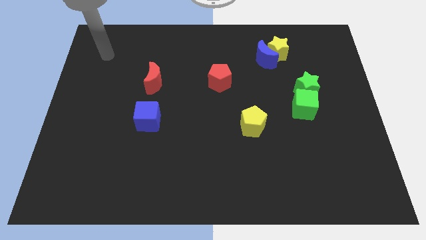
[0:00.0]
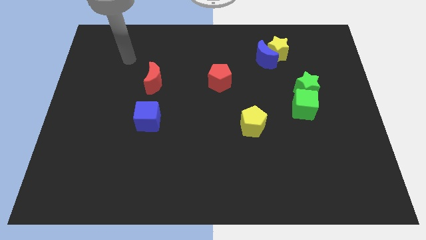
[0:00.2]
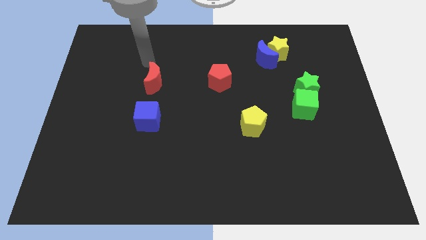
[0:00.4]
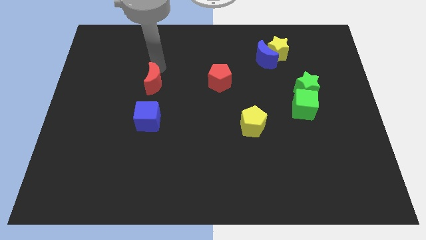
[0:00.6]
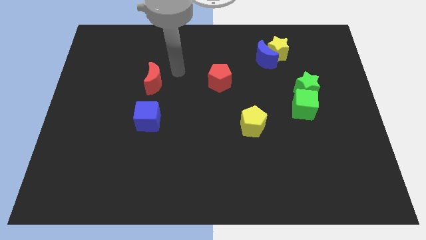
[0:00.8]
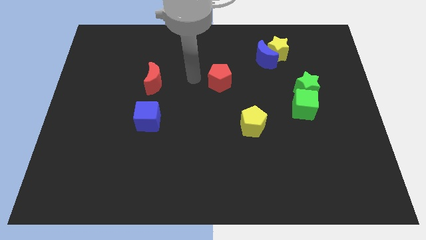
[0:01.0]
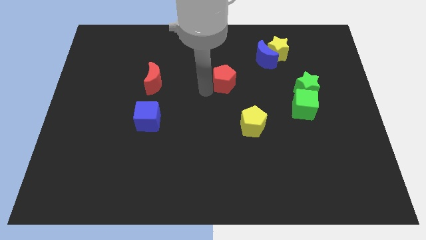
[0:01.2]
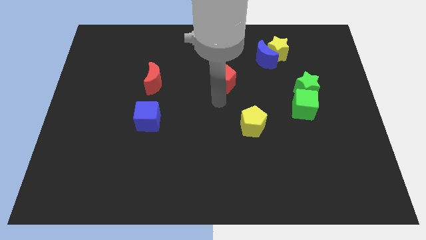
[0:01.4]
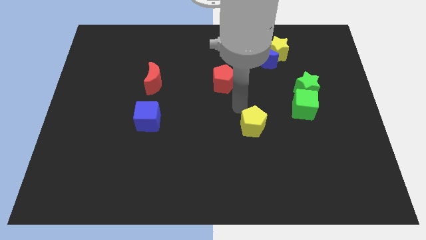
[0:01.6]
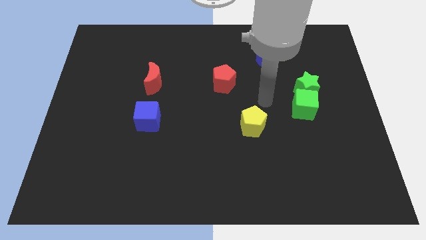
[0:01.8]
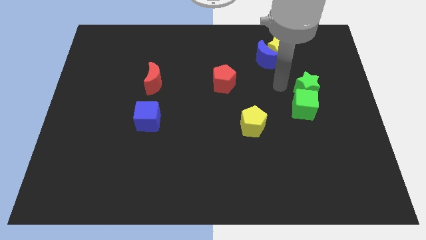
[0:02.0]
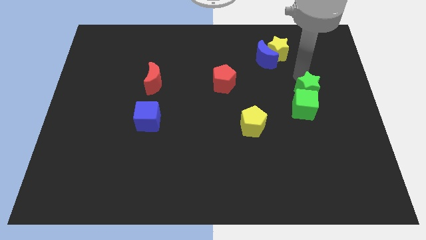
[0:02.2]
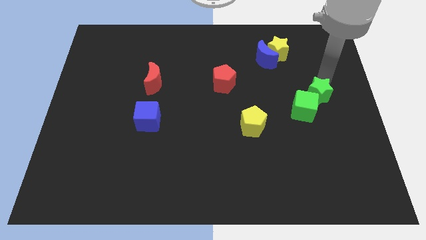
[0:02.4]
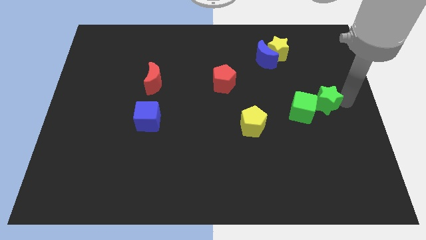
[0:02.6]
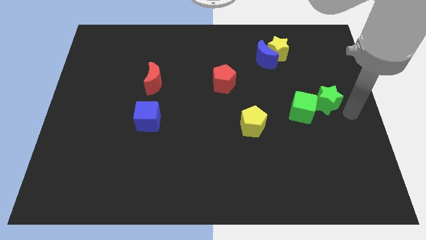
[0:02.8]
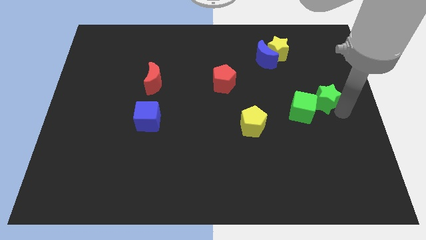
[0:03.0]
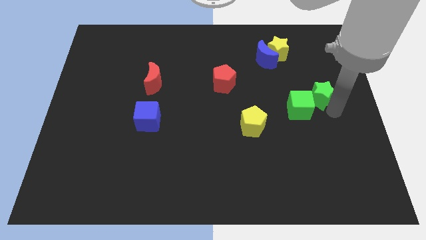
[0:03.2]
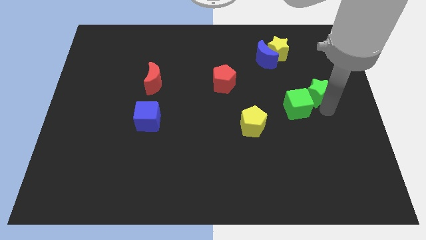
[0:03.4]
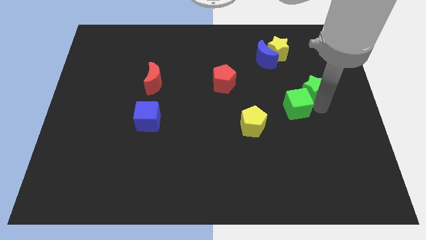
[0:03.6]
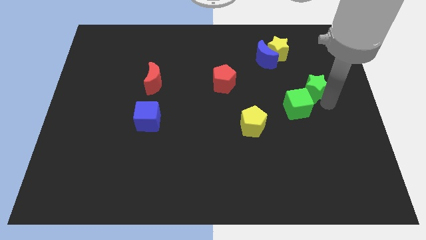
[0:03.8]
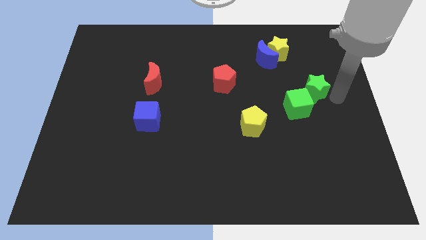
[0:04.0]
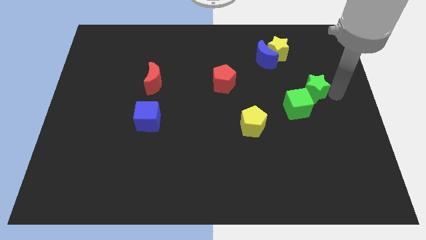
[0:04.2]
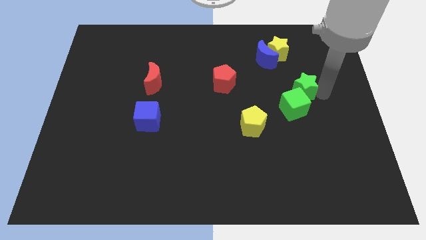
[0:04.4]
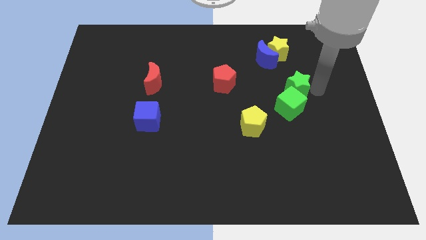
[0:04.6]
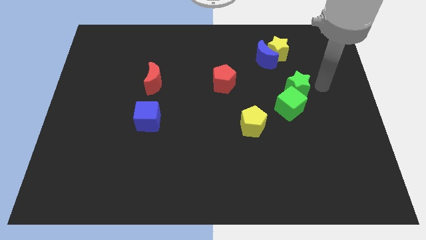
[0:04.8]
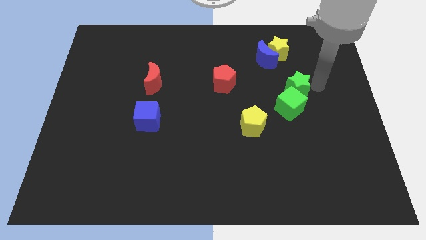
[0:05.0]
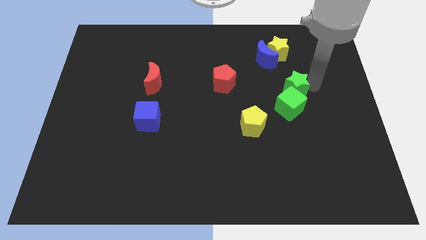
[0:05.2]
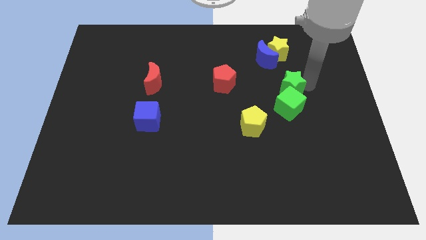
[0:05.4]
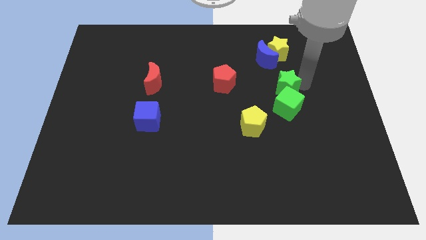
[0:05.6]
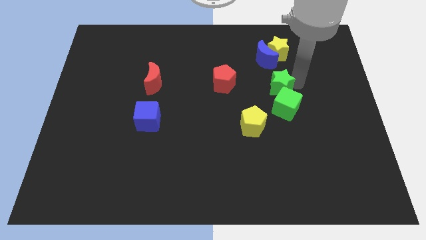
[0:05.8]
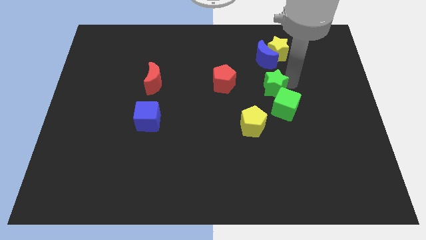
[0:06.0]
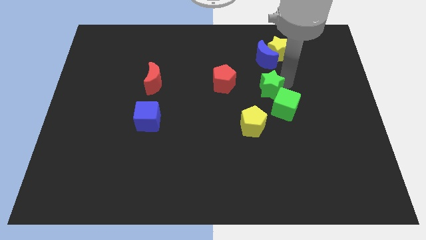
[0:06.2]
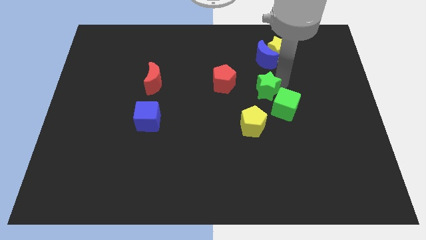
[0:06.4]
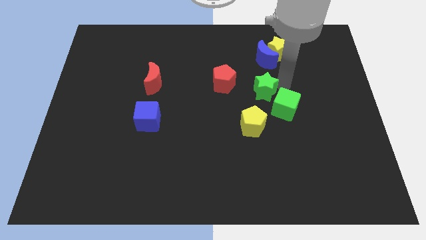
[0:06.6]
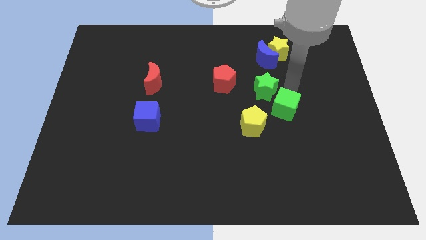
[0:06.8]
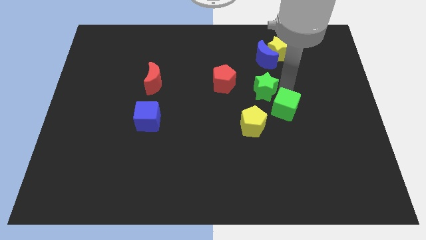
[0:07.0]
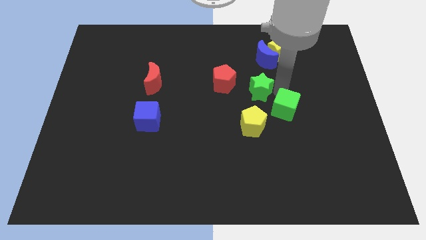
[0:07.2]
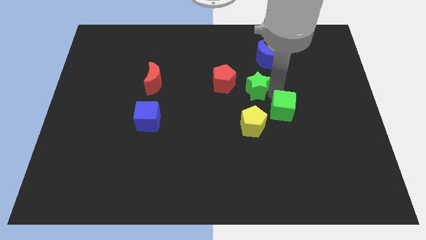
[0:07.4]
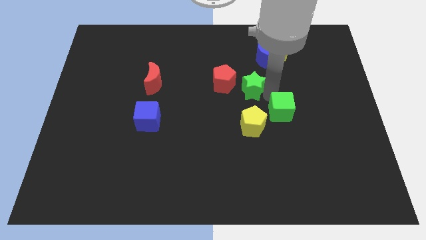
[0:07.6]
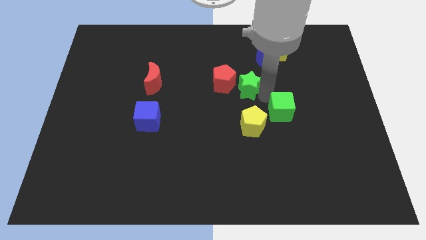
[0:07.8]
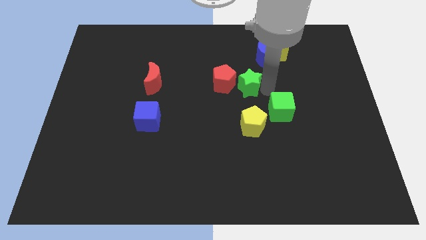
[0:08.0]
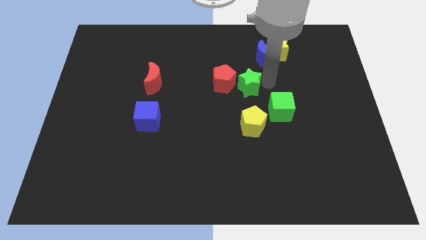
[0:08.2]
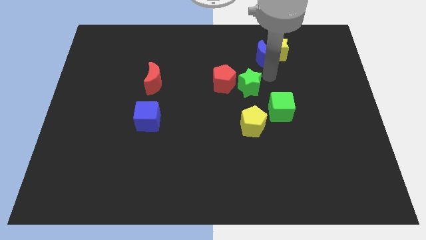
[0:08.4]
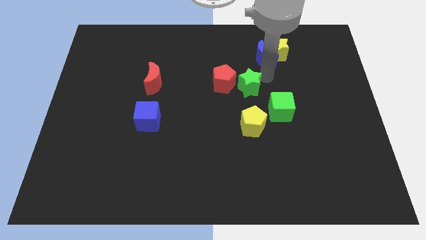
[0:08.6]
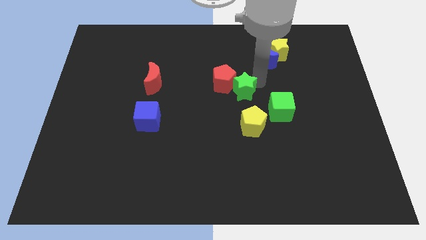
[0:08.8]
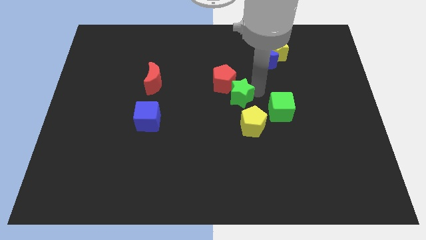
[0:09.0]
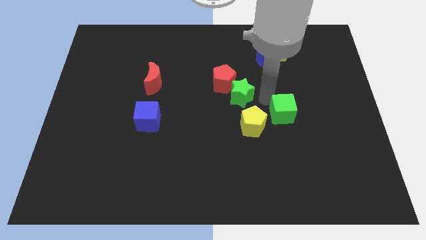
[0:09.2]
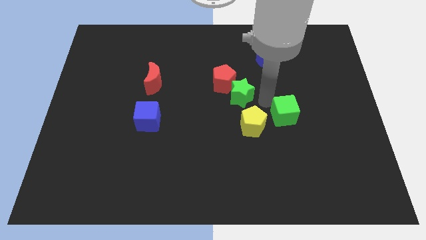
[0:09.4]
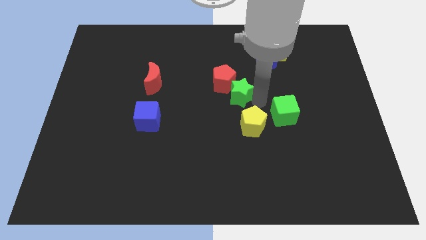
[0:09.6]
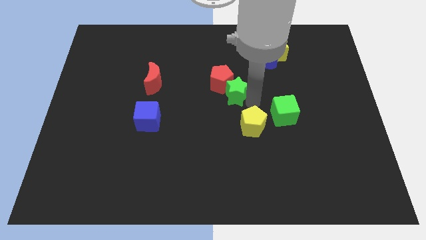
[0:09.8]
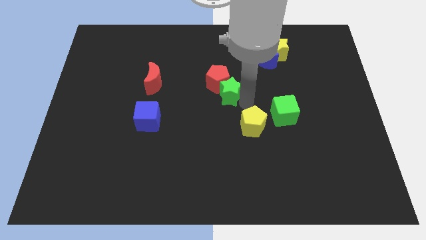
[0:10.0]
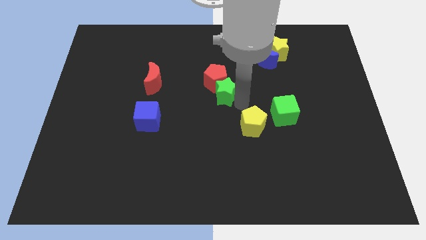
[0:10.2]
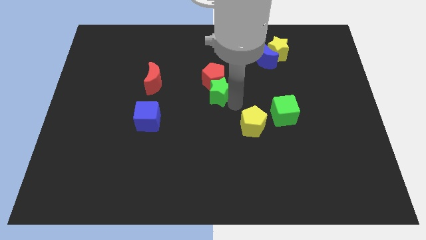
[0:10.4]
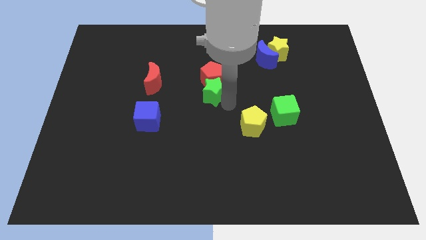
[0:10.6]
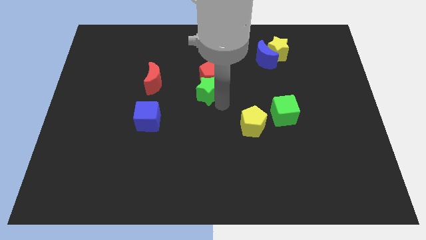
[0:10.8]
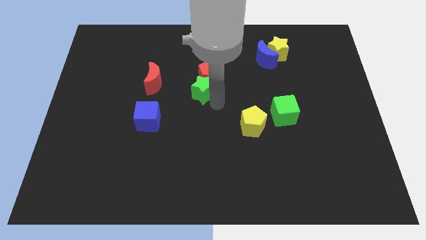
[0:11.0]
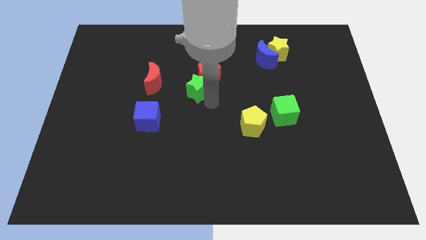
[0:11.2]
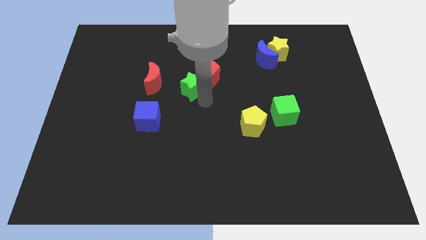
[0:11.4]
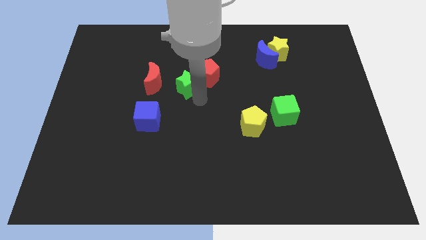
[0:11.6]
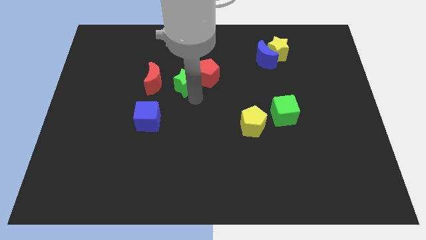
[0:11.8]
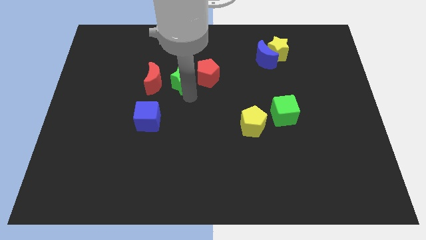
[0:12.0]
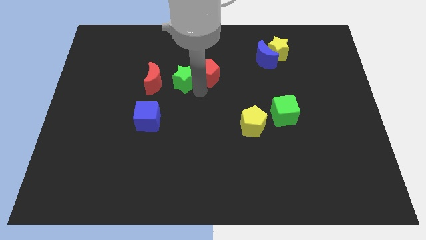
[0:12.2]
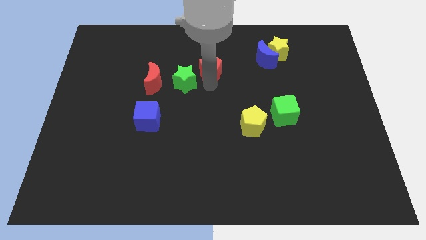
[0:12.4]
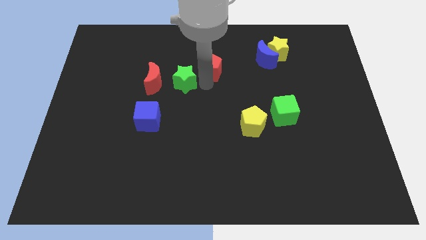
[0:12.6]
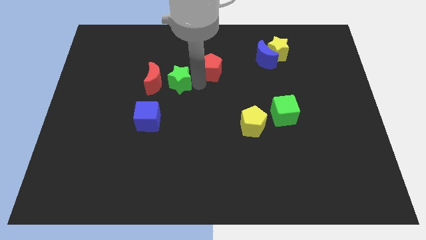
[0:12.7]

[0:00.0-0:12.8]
slide the green star close to the red moon
